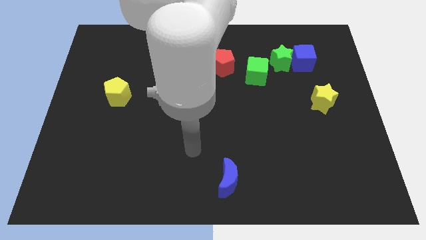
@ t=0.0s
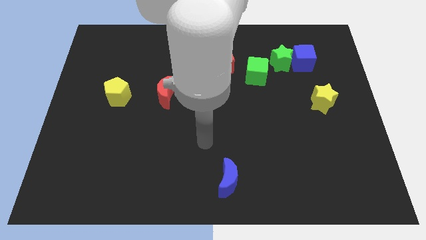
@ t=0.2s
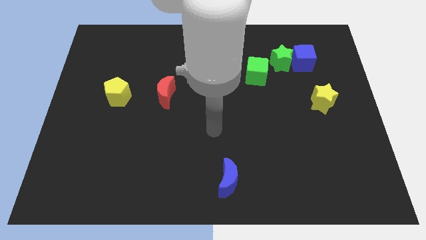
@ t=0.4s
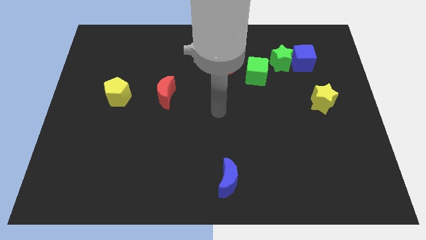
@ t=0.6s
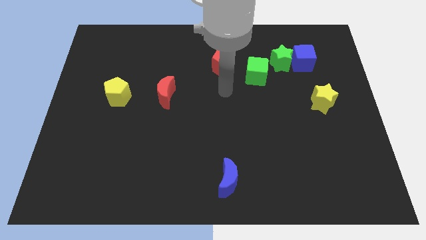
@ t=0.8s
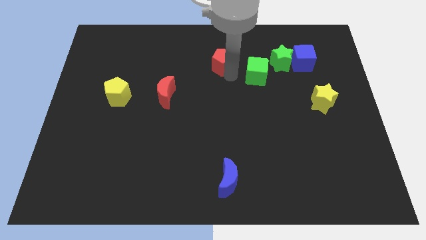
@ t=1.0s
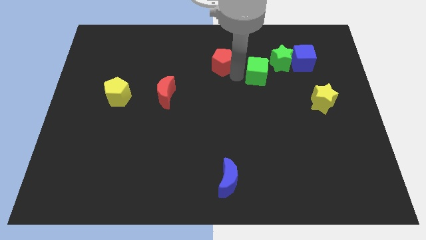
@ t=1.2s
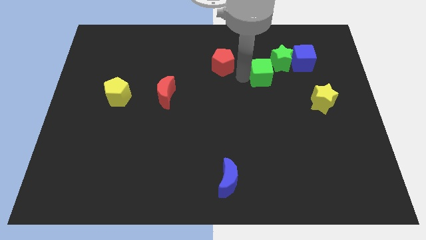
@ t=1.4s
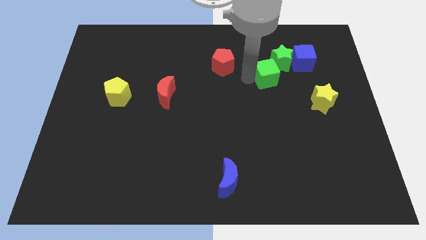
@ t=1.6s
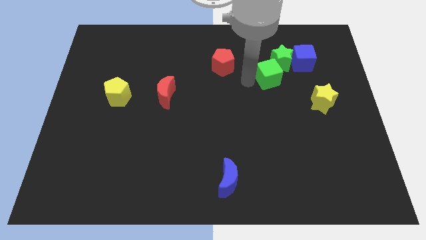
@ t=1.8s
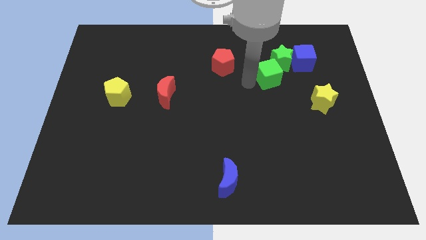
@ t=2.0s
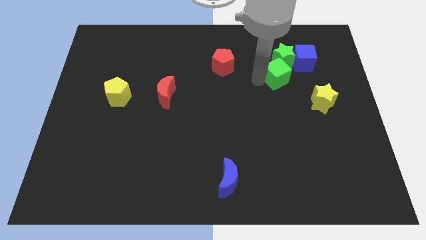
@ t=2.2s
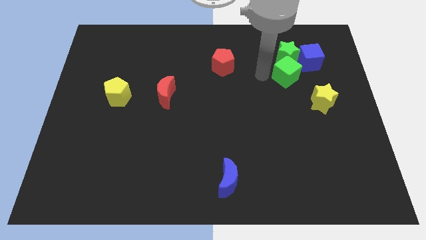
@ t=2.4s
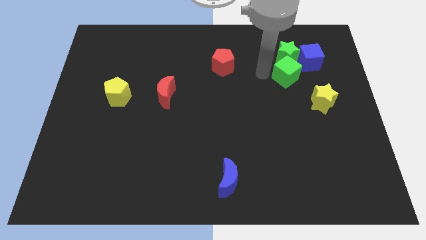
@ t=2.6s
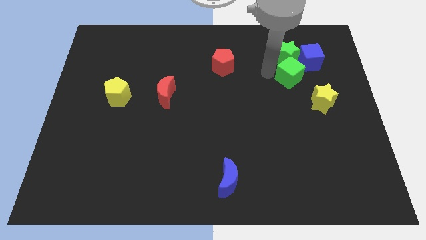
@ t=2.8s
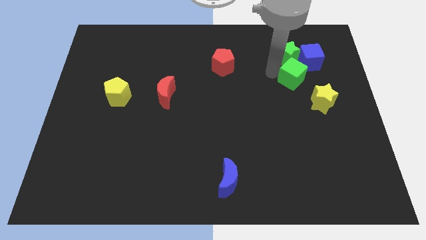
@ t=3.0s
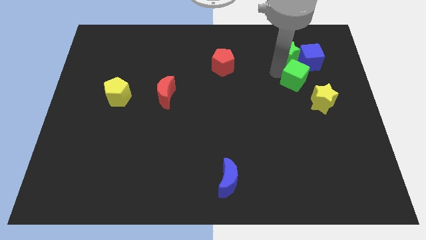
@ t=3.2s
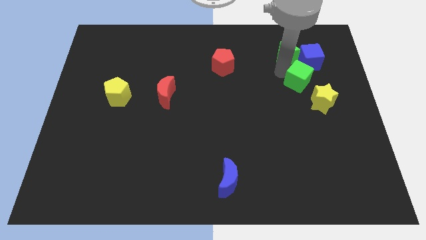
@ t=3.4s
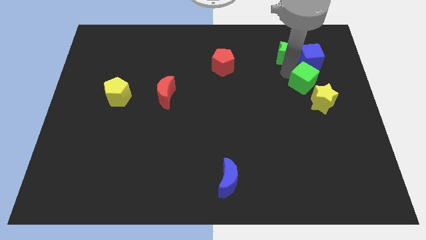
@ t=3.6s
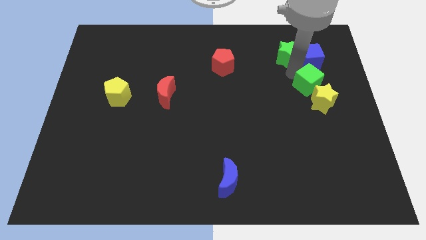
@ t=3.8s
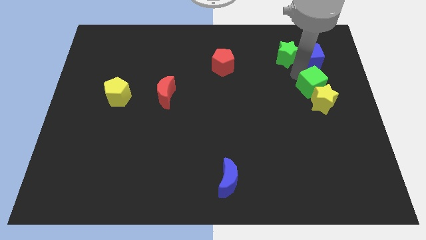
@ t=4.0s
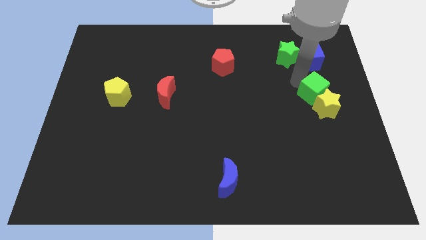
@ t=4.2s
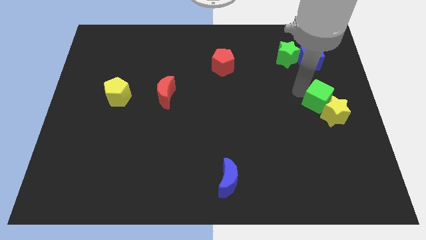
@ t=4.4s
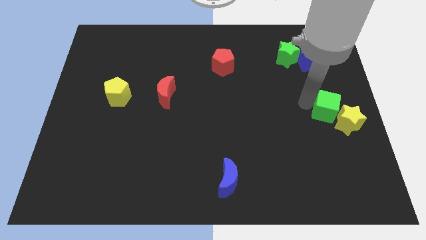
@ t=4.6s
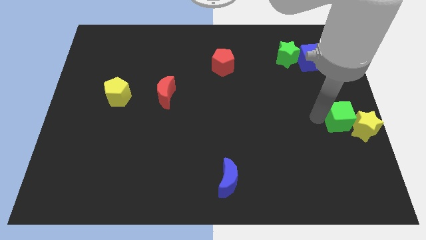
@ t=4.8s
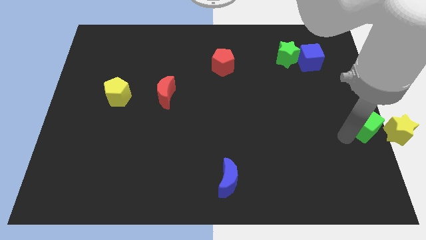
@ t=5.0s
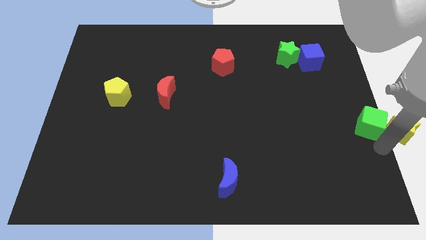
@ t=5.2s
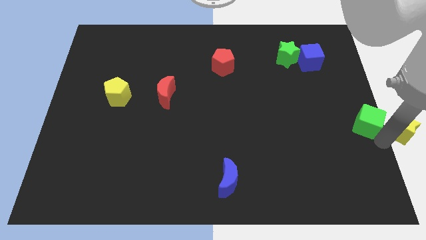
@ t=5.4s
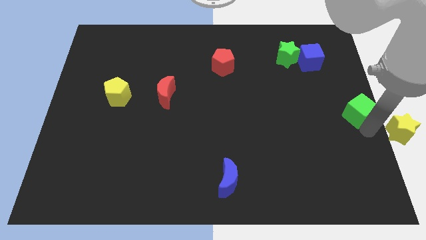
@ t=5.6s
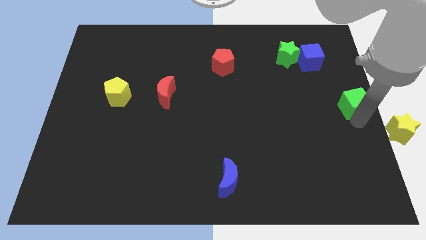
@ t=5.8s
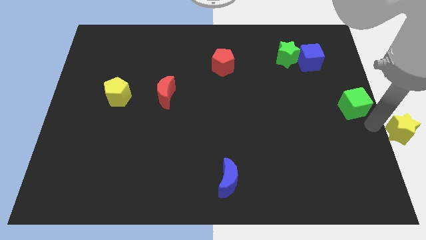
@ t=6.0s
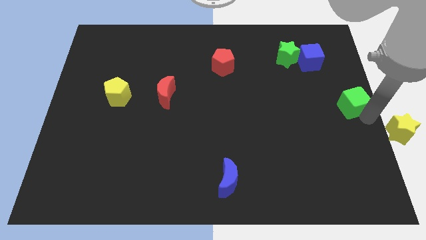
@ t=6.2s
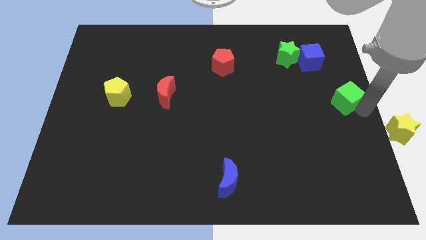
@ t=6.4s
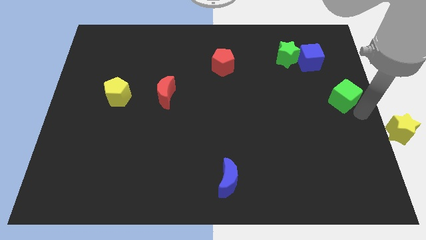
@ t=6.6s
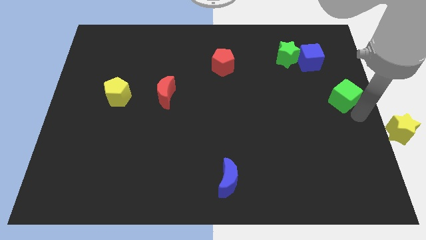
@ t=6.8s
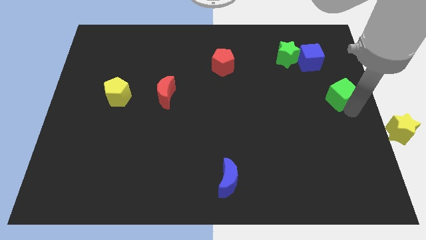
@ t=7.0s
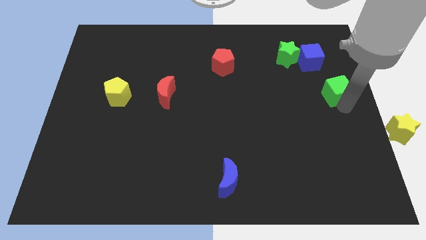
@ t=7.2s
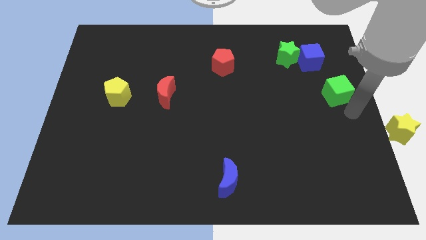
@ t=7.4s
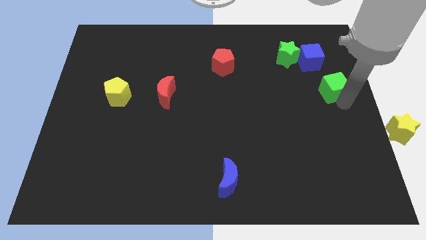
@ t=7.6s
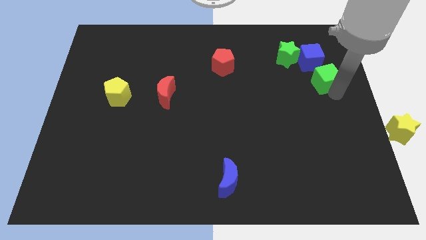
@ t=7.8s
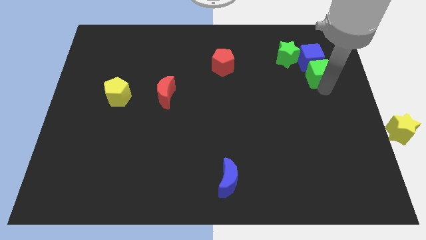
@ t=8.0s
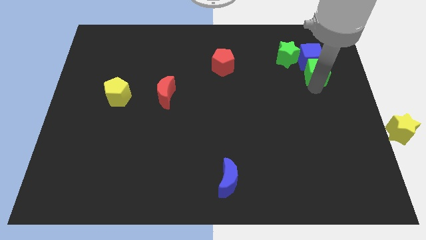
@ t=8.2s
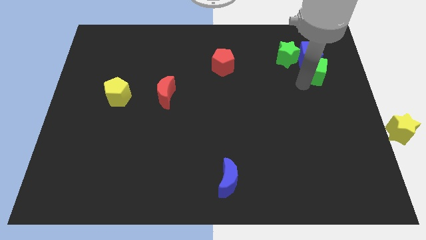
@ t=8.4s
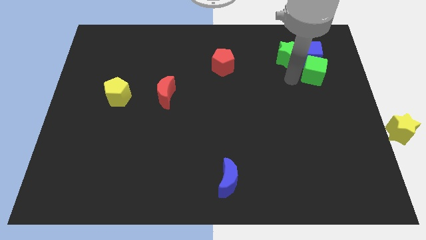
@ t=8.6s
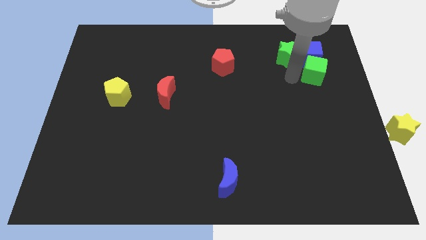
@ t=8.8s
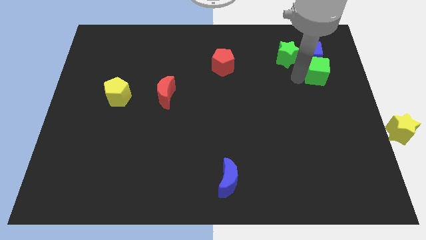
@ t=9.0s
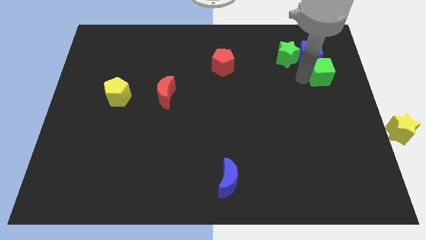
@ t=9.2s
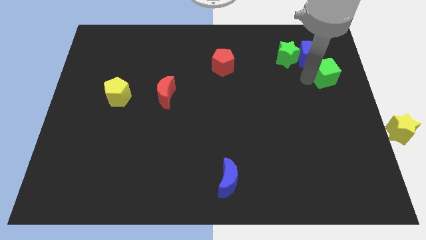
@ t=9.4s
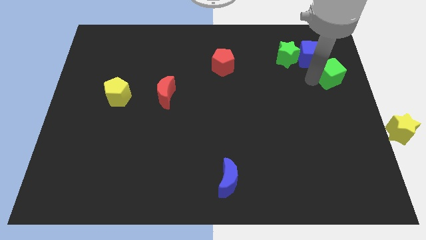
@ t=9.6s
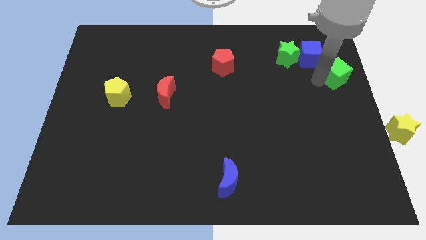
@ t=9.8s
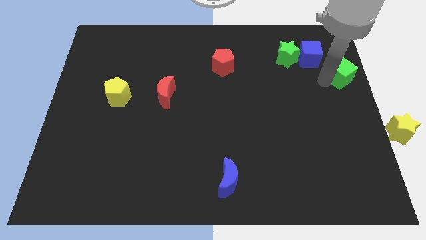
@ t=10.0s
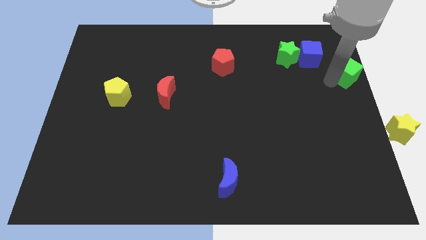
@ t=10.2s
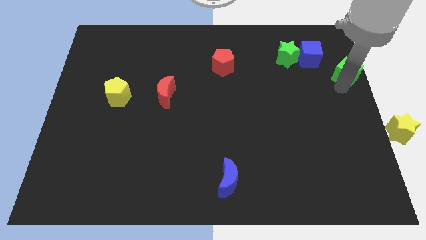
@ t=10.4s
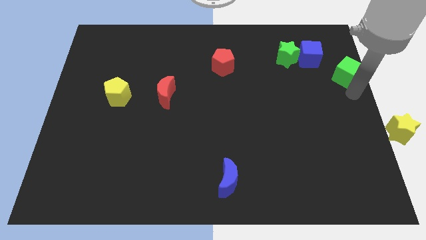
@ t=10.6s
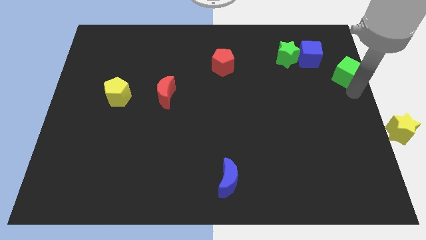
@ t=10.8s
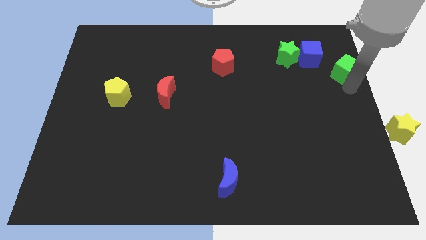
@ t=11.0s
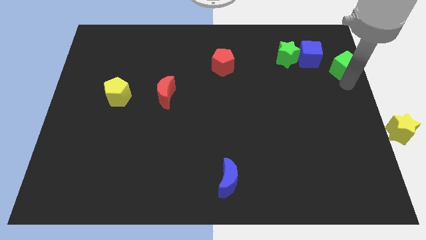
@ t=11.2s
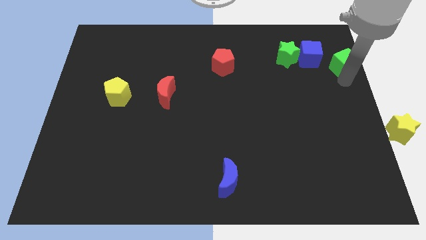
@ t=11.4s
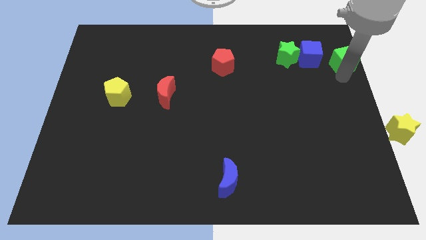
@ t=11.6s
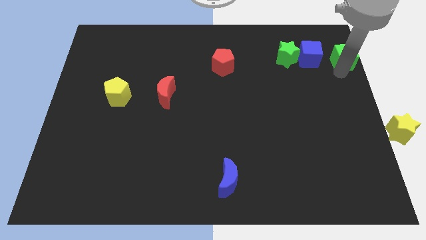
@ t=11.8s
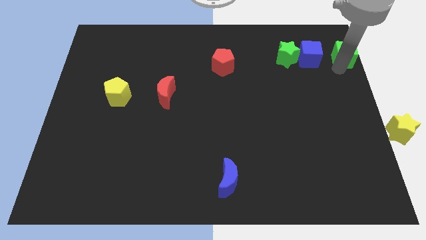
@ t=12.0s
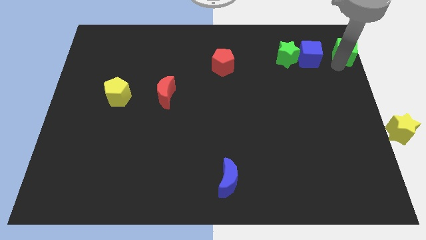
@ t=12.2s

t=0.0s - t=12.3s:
move the green cube to the top right of the board

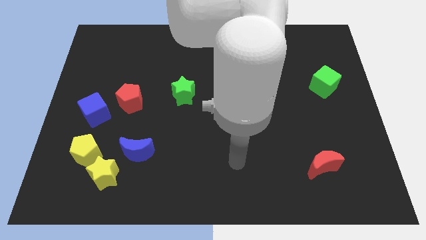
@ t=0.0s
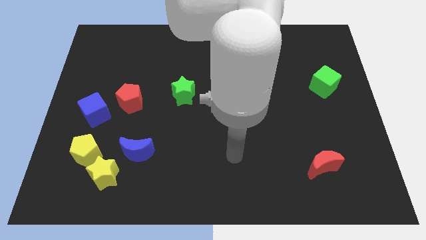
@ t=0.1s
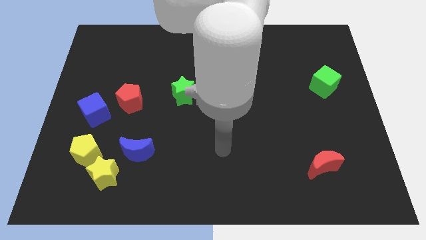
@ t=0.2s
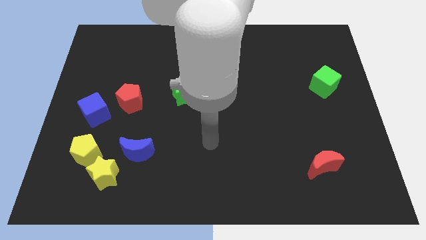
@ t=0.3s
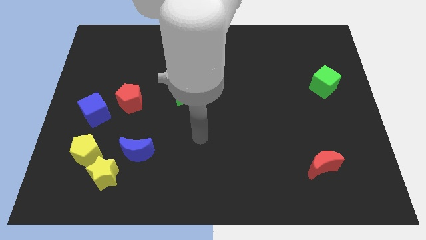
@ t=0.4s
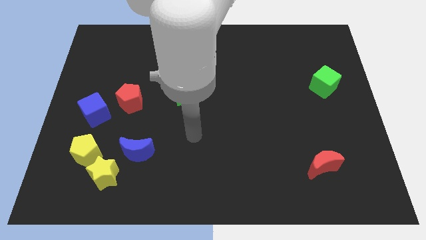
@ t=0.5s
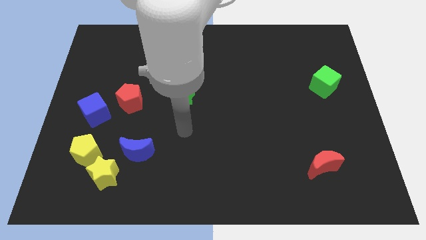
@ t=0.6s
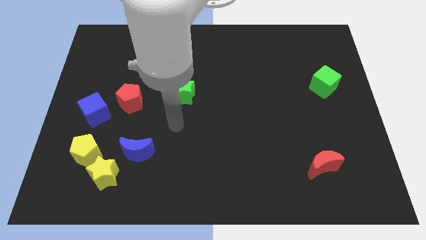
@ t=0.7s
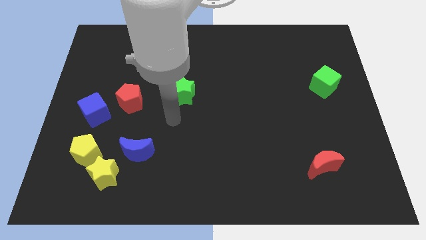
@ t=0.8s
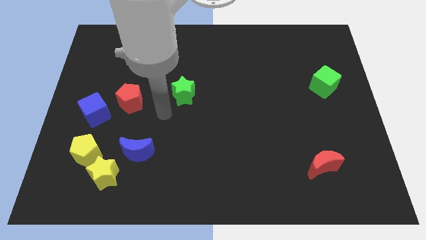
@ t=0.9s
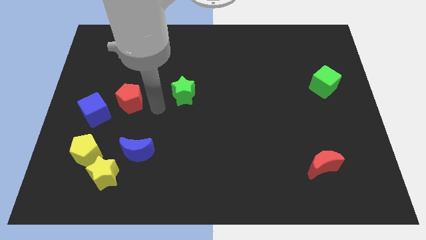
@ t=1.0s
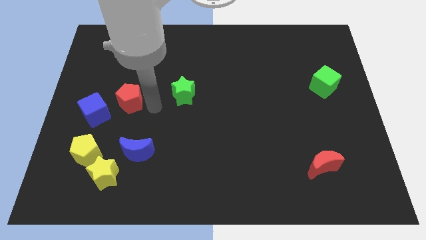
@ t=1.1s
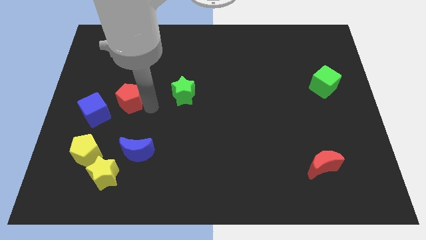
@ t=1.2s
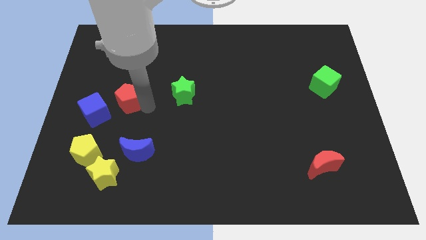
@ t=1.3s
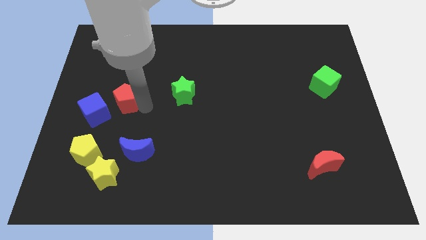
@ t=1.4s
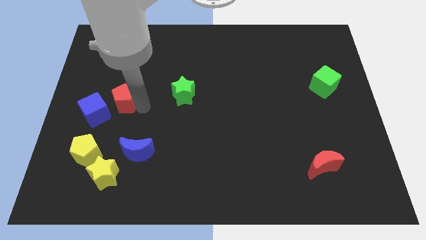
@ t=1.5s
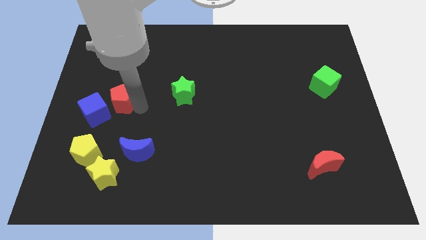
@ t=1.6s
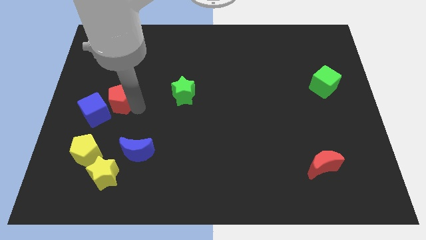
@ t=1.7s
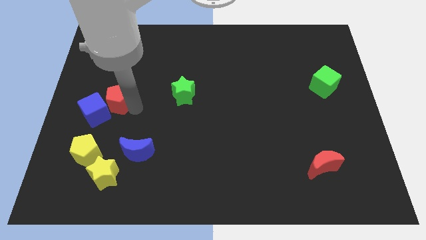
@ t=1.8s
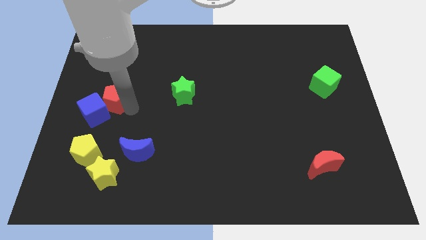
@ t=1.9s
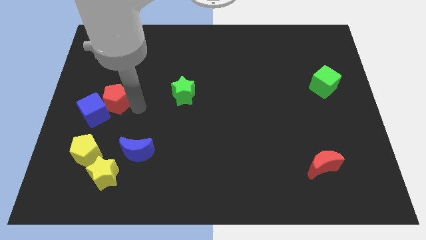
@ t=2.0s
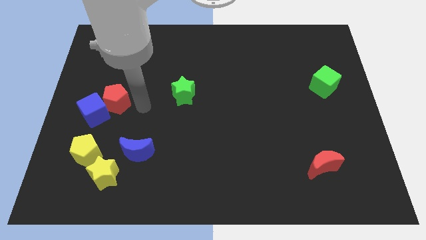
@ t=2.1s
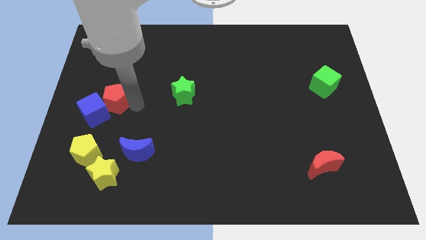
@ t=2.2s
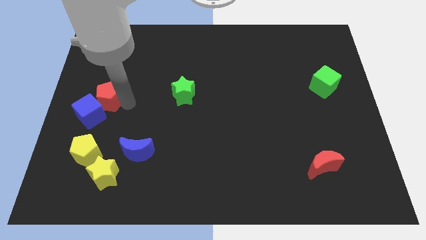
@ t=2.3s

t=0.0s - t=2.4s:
push the red pentagon to the left side
